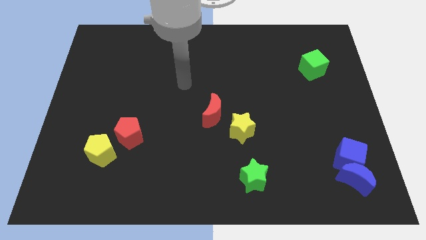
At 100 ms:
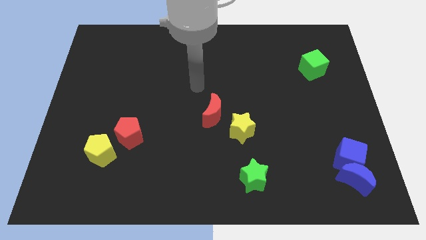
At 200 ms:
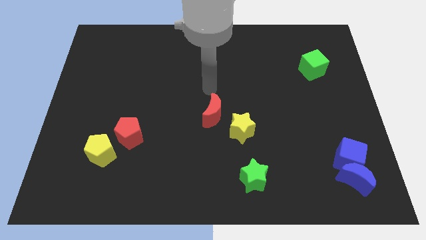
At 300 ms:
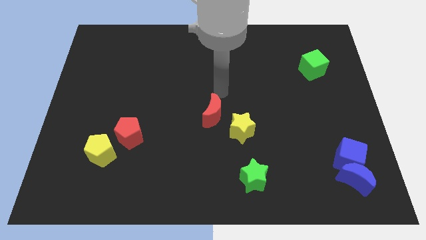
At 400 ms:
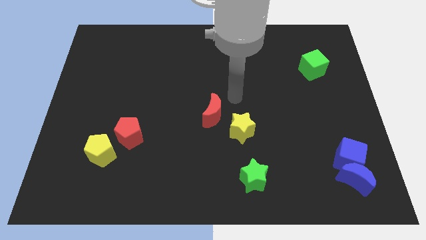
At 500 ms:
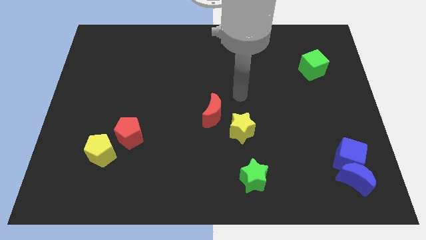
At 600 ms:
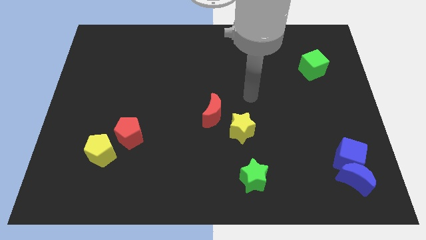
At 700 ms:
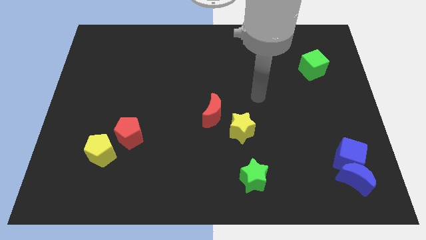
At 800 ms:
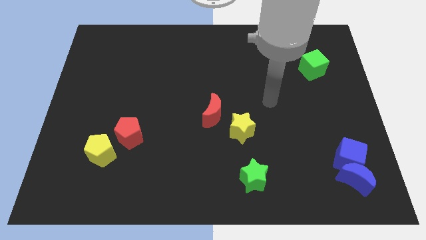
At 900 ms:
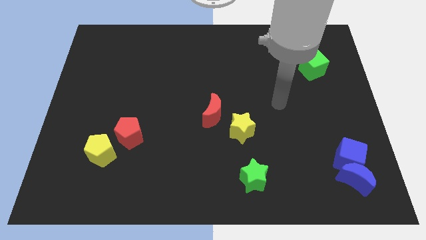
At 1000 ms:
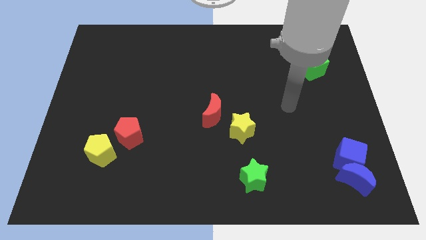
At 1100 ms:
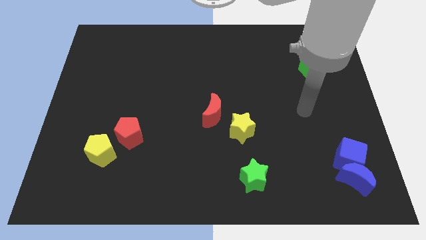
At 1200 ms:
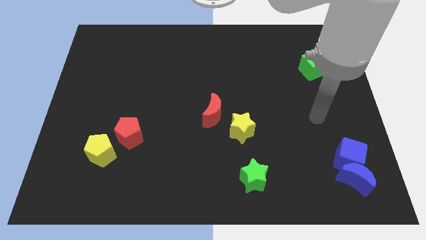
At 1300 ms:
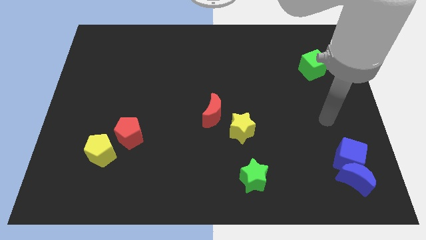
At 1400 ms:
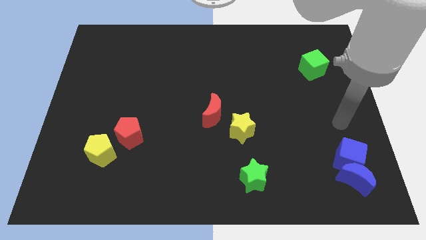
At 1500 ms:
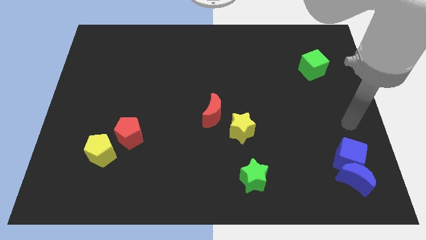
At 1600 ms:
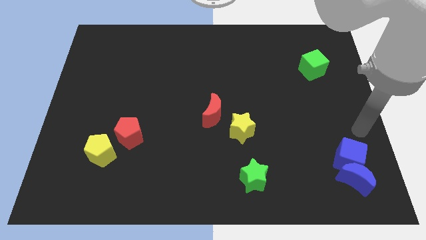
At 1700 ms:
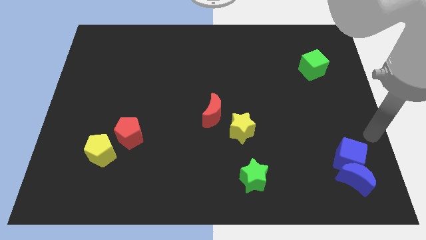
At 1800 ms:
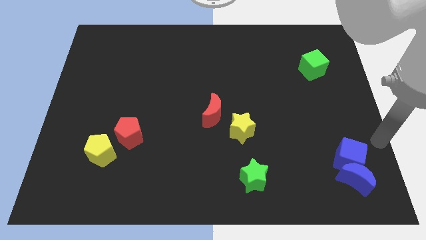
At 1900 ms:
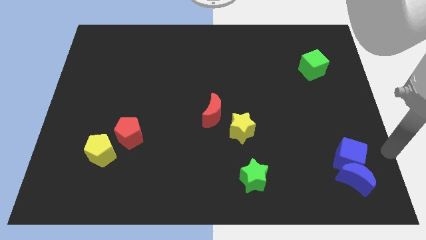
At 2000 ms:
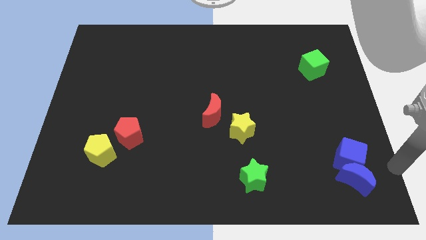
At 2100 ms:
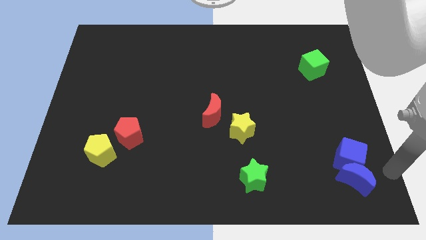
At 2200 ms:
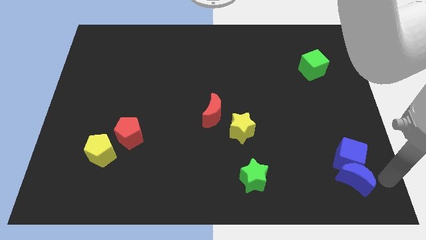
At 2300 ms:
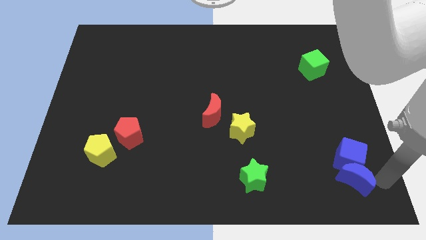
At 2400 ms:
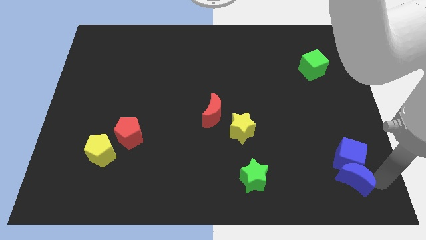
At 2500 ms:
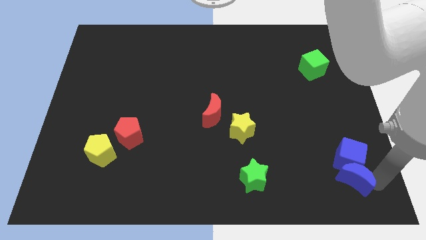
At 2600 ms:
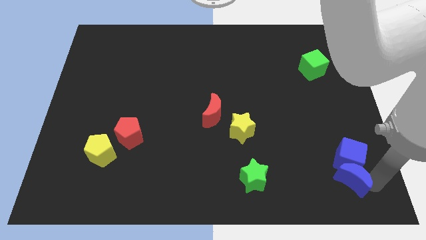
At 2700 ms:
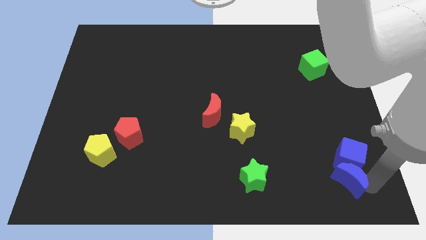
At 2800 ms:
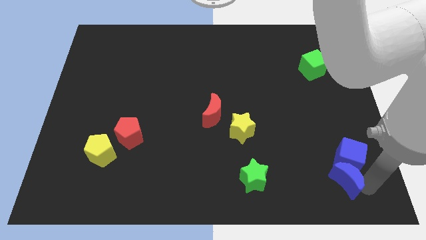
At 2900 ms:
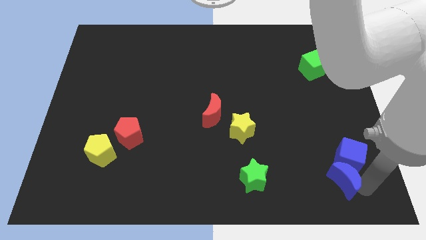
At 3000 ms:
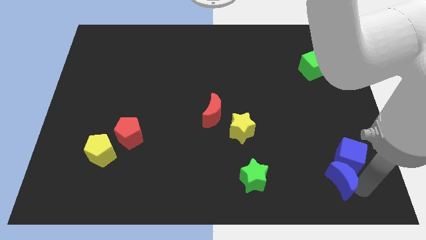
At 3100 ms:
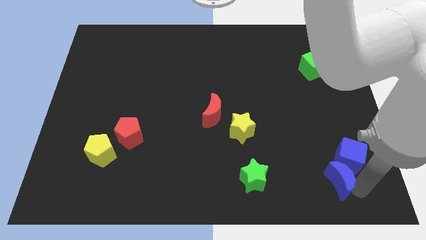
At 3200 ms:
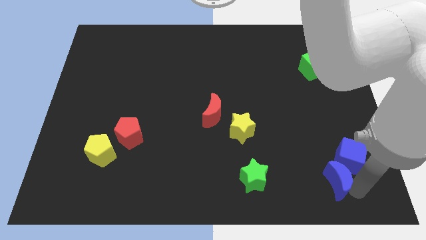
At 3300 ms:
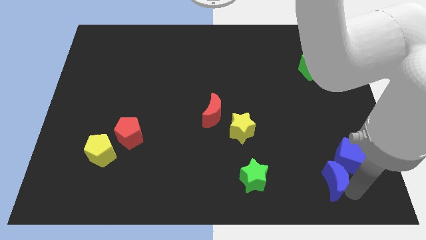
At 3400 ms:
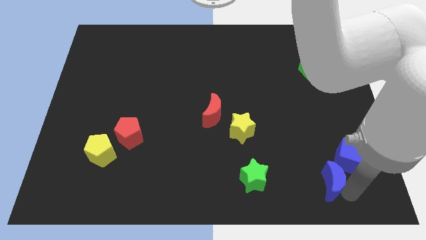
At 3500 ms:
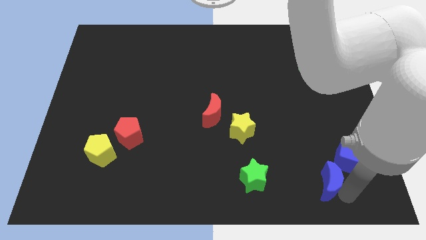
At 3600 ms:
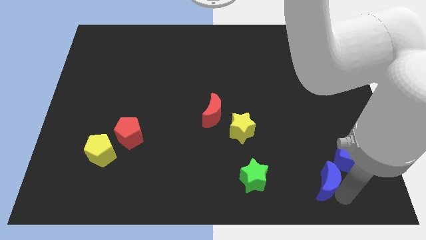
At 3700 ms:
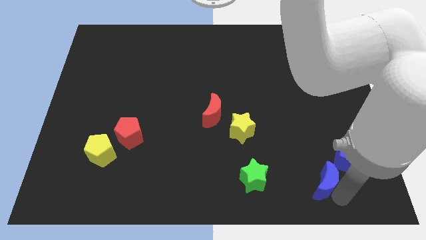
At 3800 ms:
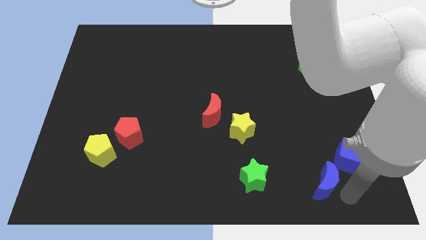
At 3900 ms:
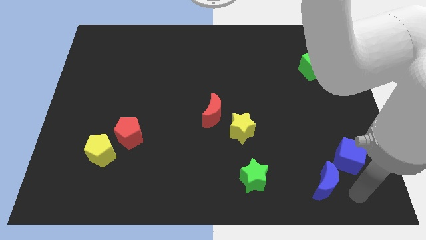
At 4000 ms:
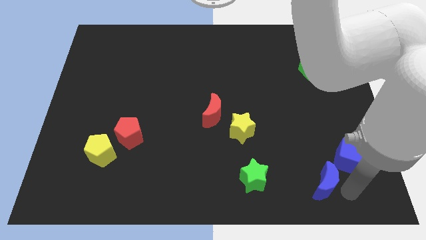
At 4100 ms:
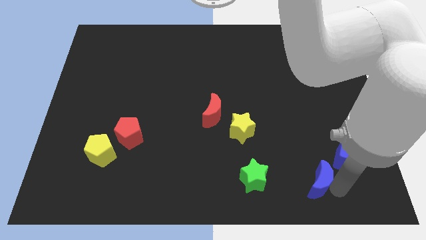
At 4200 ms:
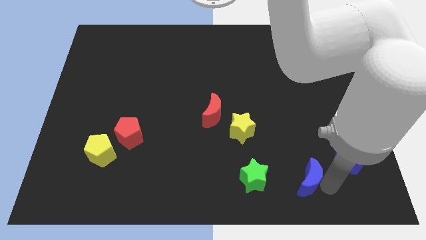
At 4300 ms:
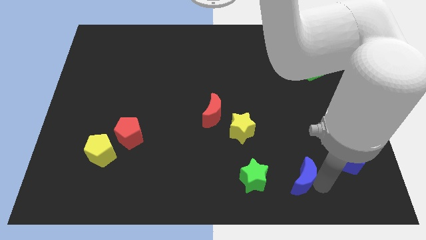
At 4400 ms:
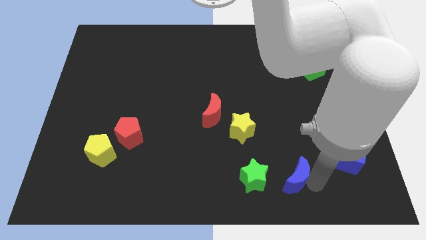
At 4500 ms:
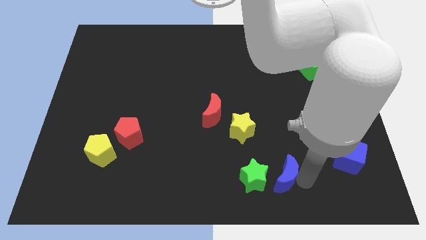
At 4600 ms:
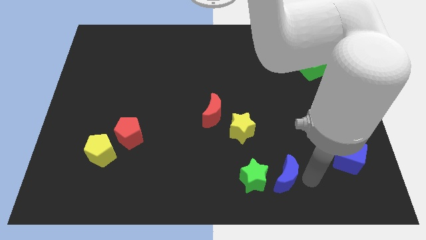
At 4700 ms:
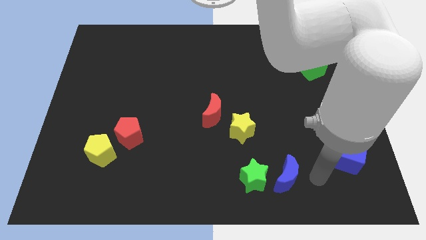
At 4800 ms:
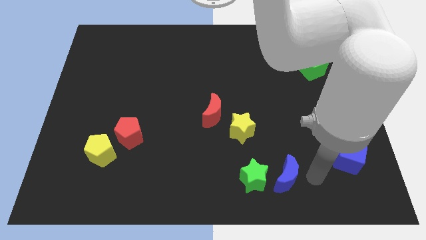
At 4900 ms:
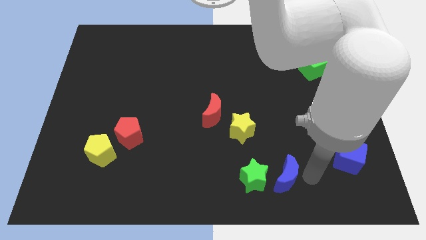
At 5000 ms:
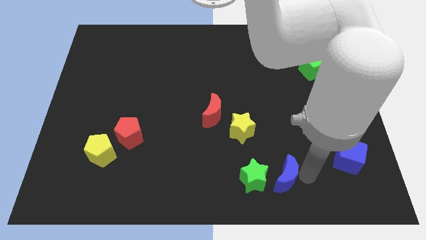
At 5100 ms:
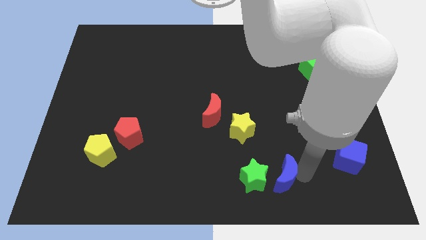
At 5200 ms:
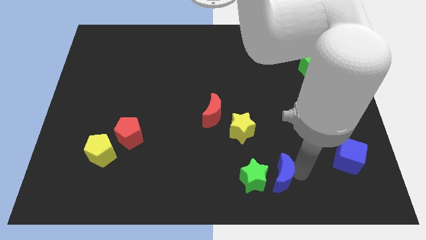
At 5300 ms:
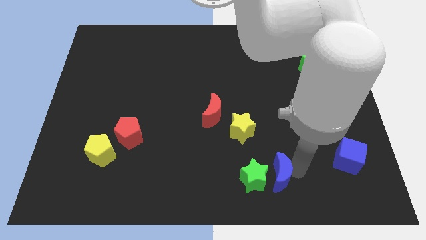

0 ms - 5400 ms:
move the blue moon next to the green star

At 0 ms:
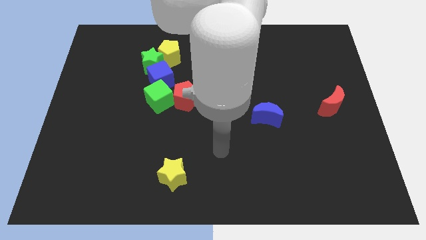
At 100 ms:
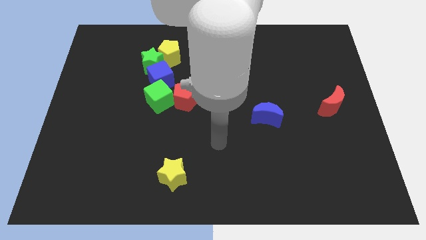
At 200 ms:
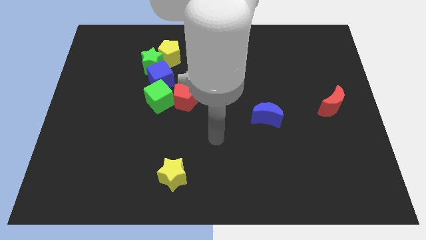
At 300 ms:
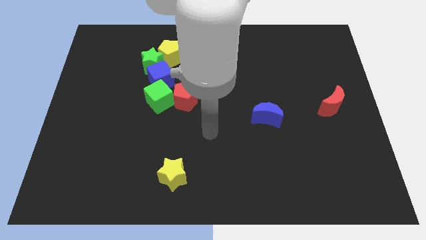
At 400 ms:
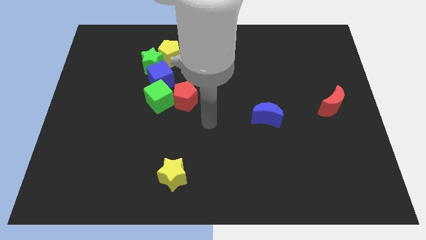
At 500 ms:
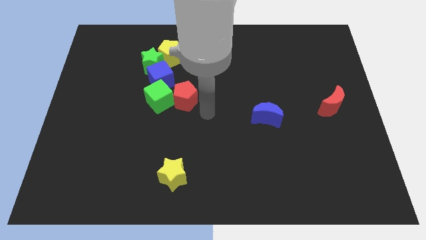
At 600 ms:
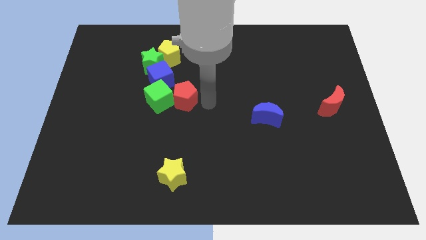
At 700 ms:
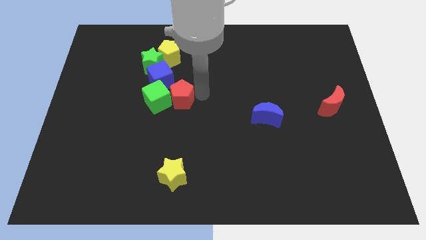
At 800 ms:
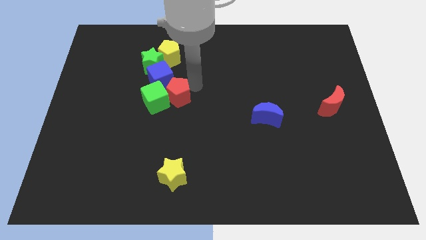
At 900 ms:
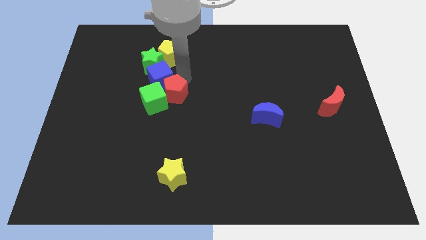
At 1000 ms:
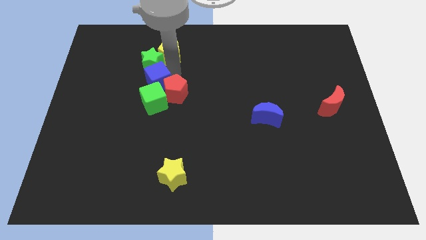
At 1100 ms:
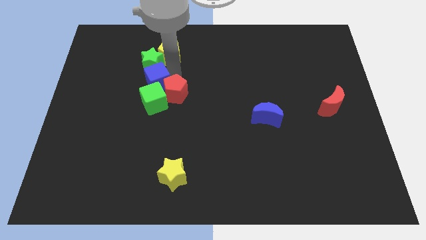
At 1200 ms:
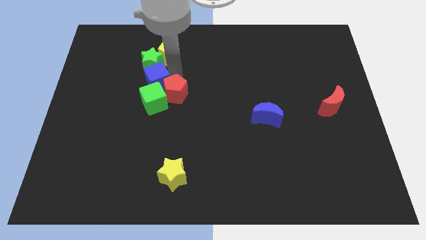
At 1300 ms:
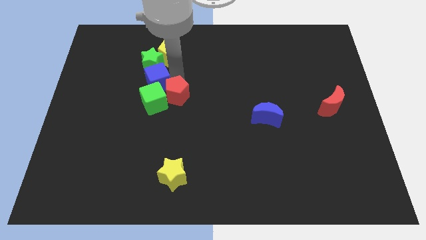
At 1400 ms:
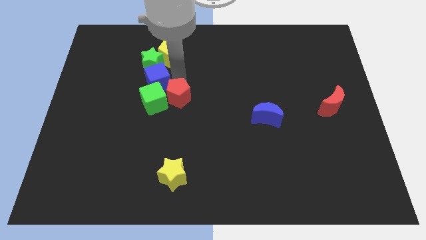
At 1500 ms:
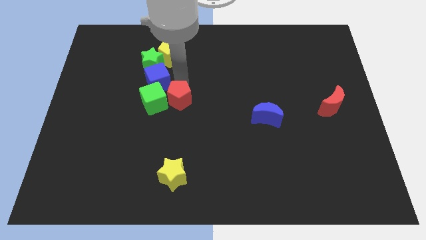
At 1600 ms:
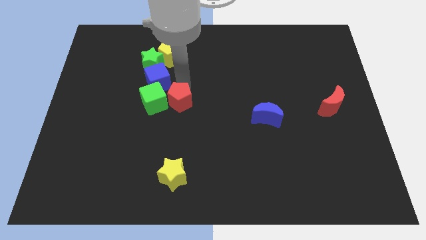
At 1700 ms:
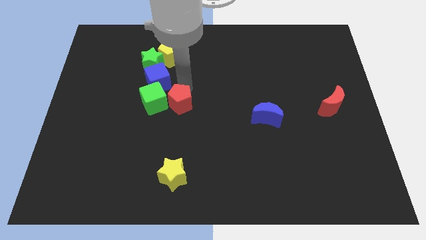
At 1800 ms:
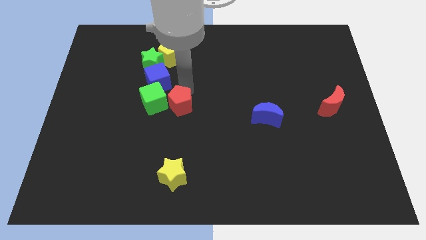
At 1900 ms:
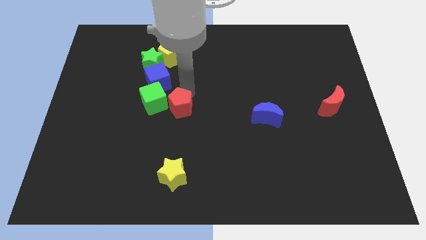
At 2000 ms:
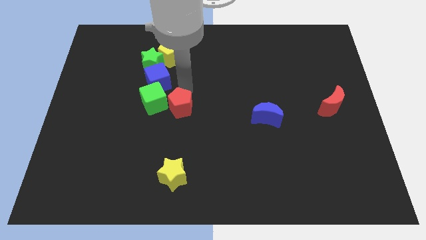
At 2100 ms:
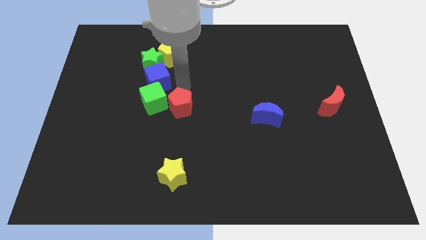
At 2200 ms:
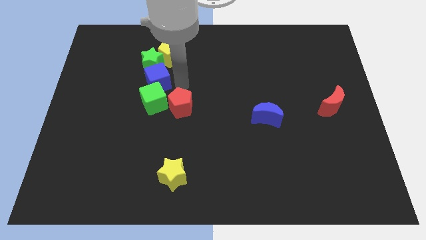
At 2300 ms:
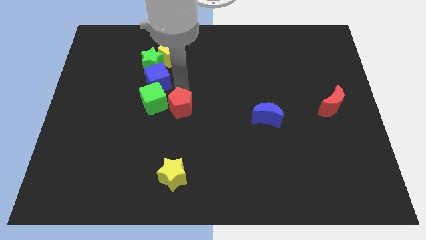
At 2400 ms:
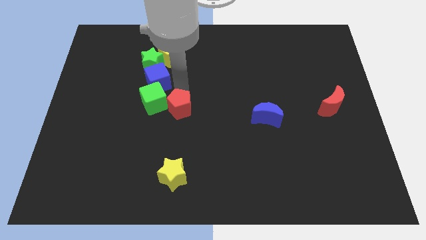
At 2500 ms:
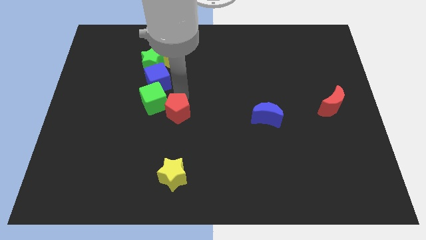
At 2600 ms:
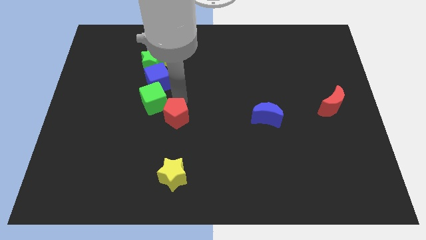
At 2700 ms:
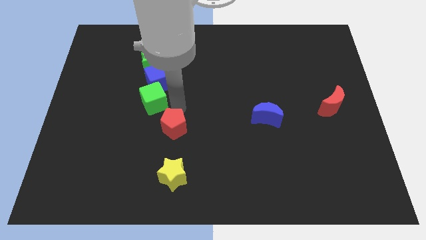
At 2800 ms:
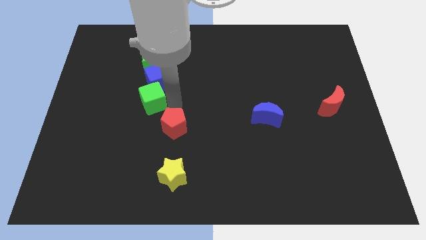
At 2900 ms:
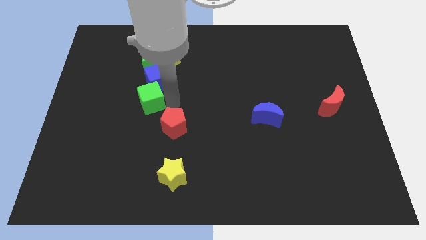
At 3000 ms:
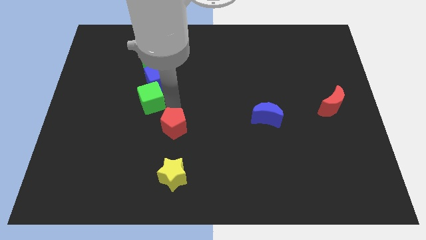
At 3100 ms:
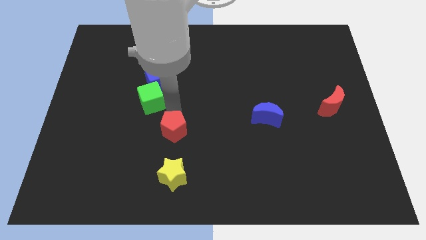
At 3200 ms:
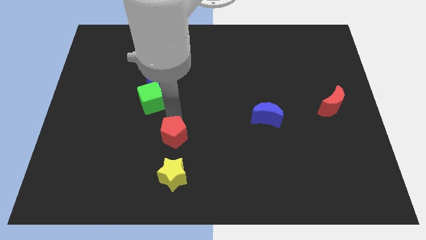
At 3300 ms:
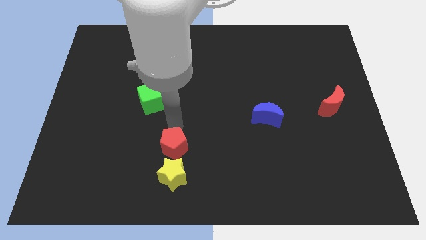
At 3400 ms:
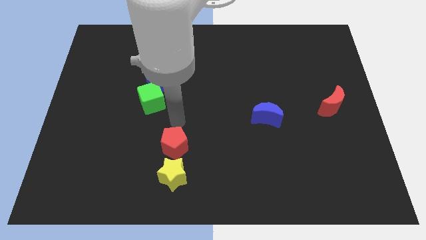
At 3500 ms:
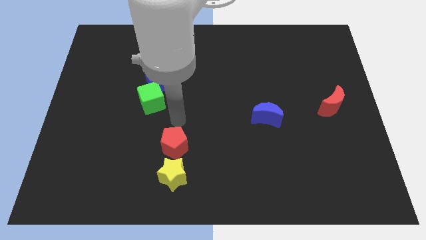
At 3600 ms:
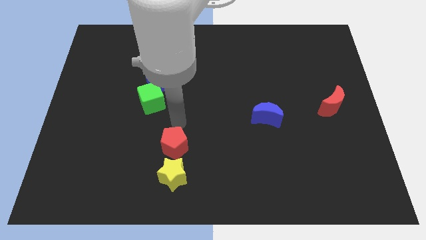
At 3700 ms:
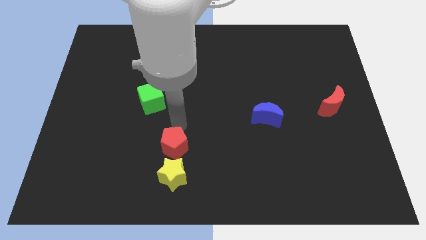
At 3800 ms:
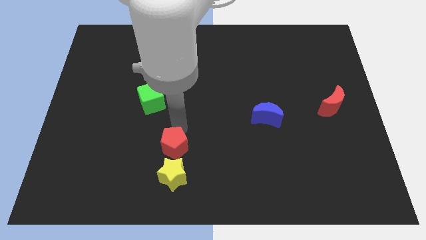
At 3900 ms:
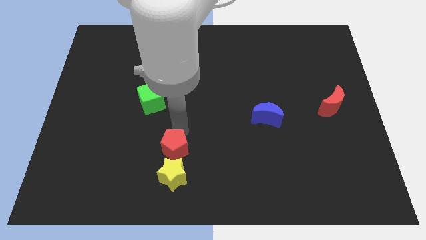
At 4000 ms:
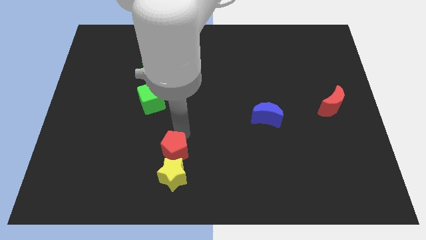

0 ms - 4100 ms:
push the red pentagon next to the yellow star
